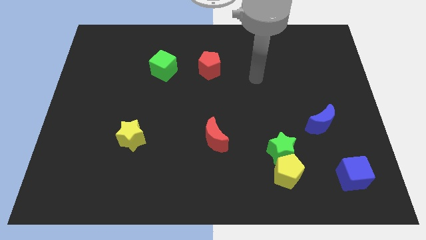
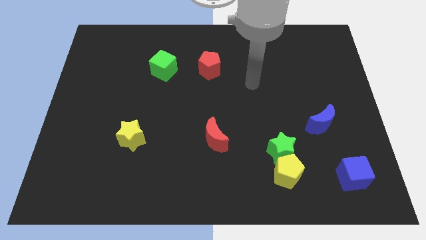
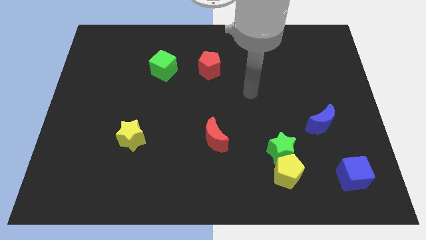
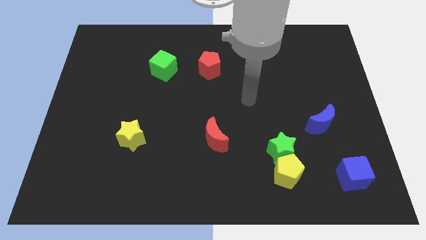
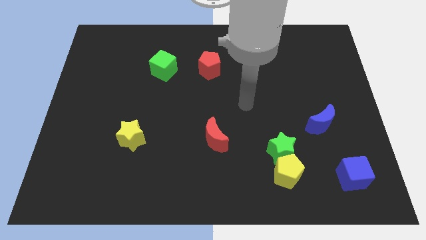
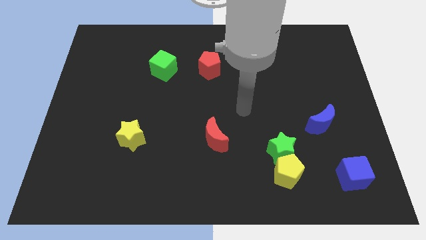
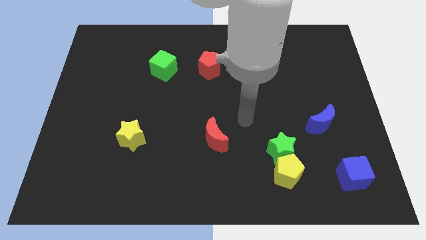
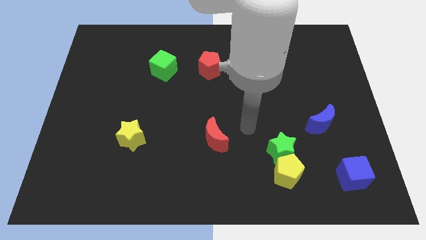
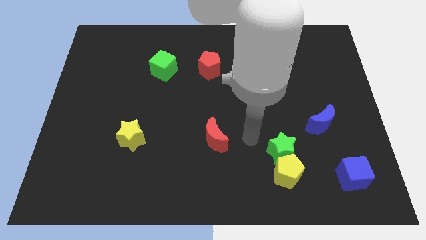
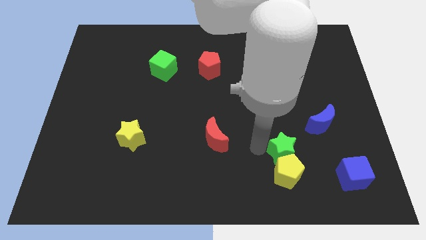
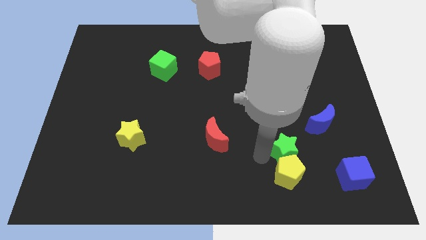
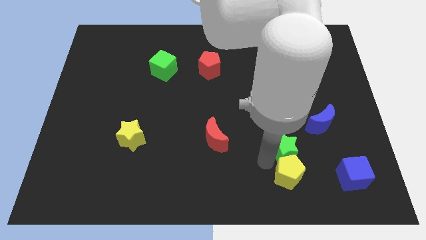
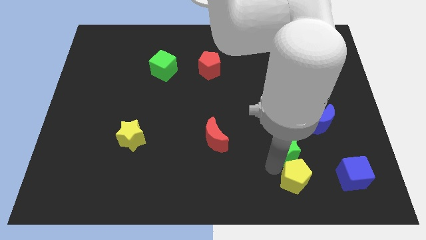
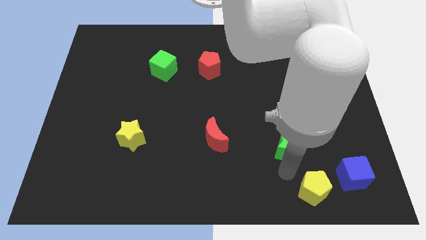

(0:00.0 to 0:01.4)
separate the green star from the yellow pentagon

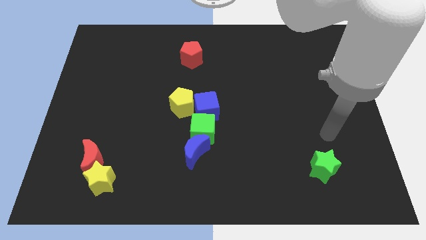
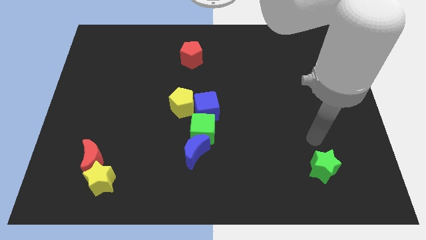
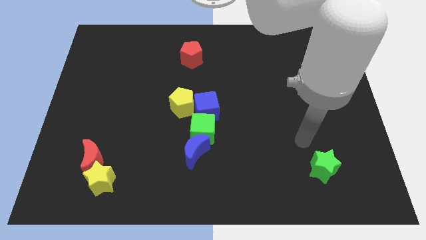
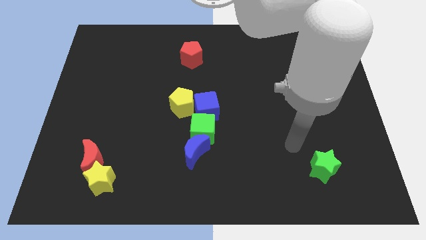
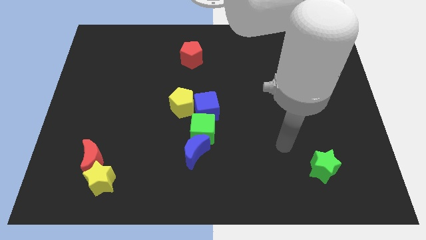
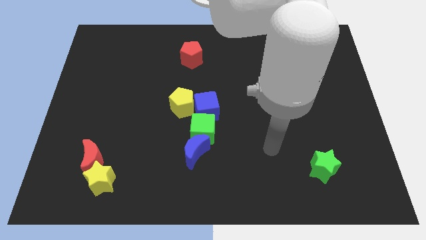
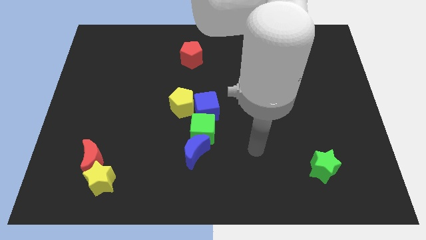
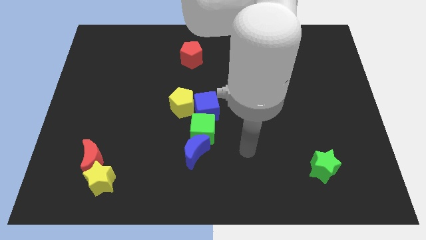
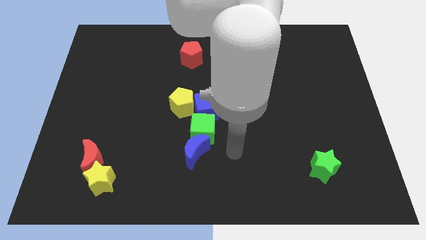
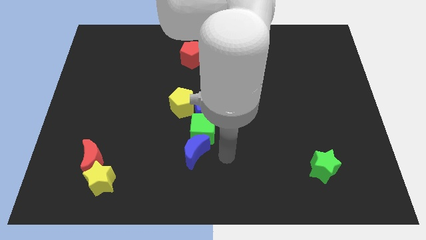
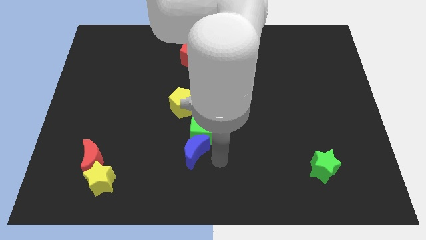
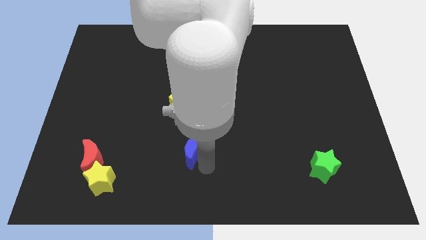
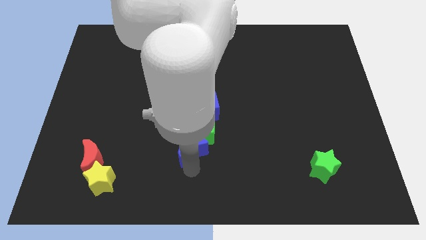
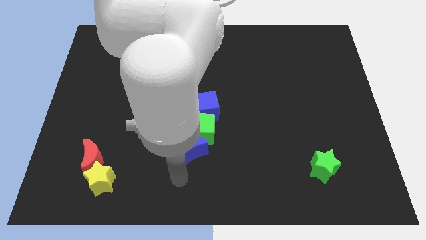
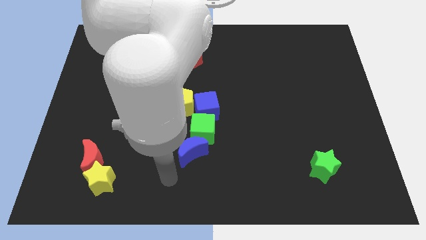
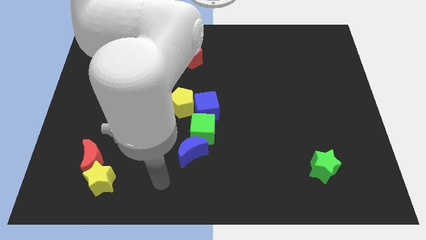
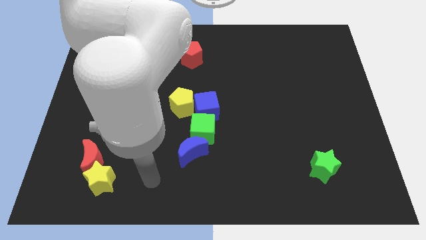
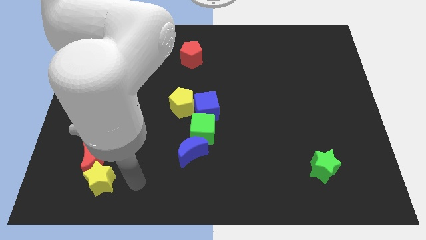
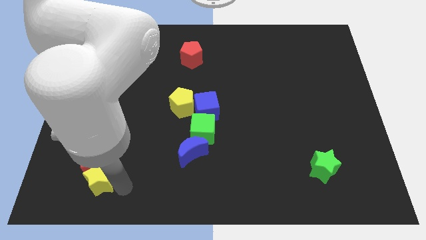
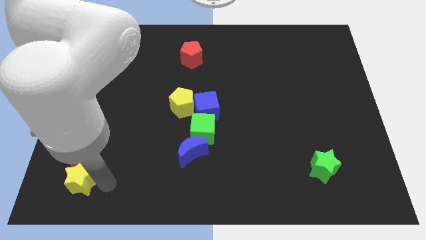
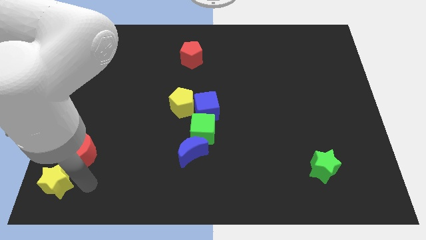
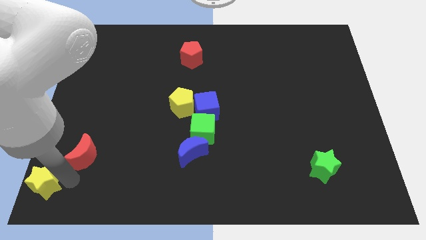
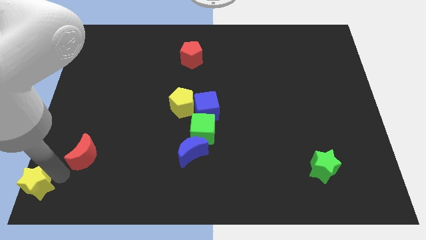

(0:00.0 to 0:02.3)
separate the red moon from the yellow star

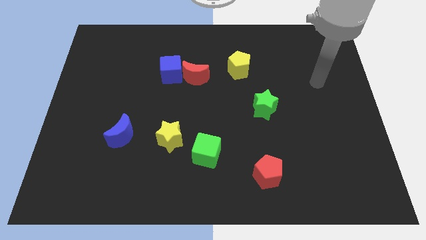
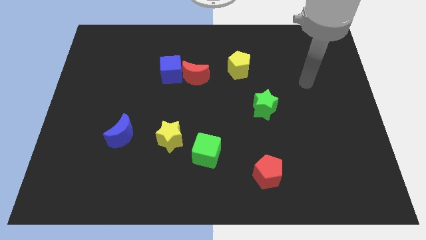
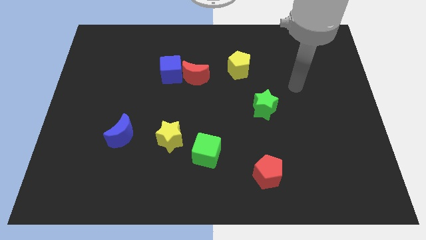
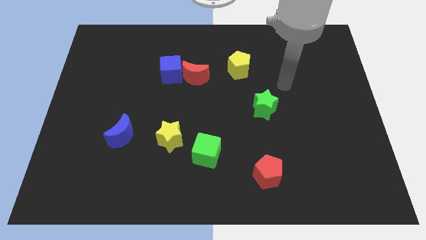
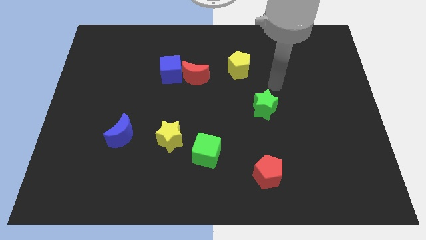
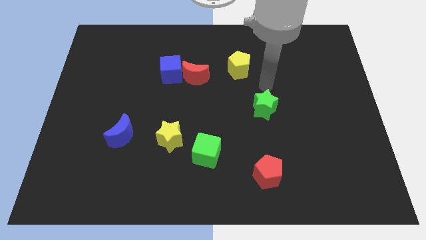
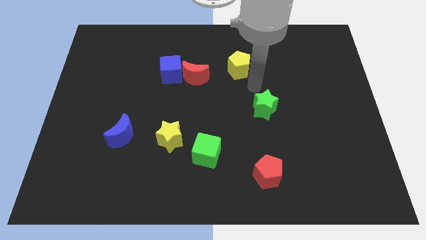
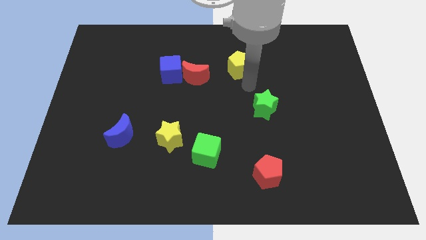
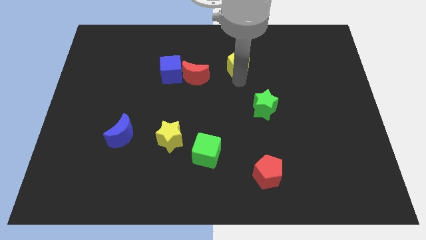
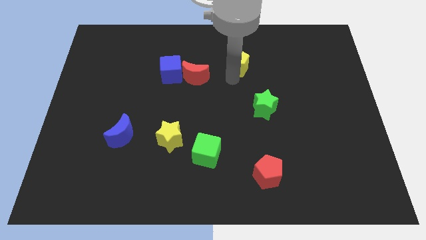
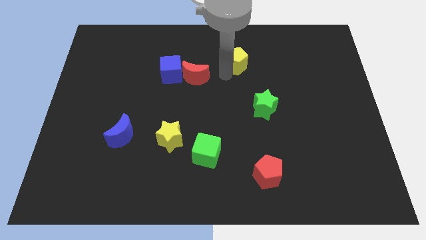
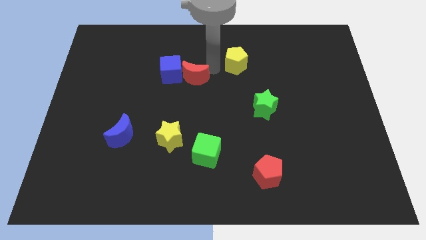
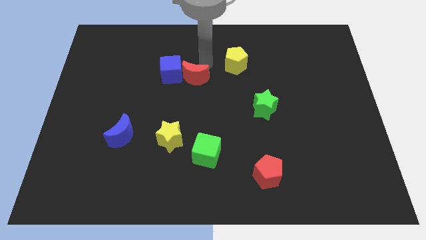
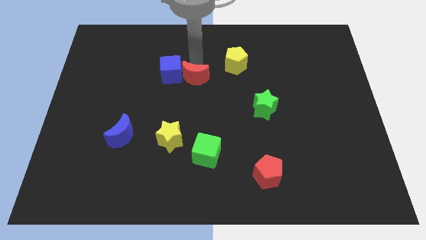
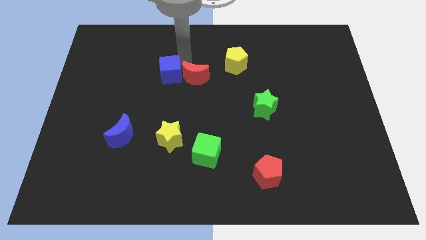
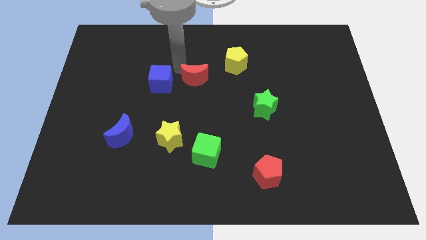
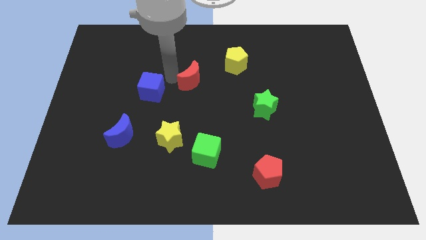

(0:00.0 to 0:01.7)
pull the red moon apart from the blue cube

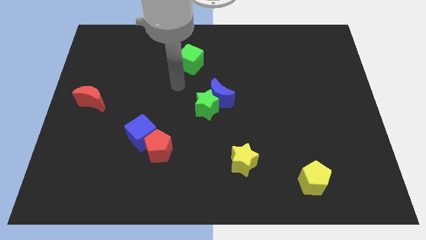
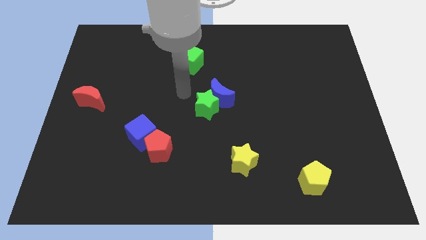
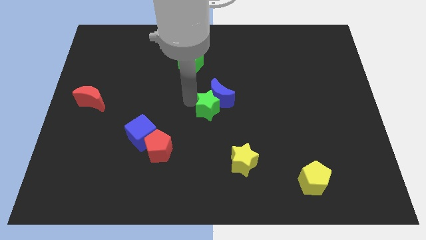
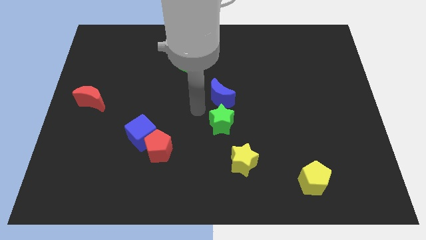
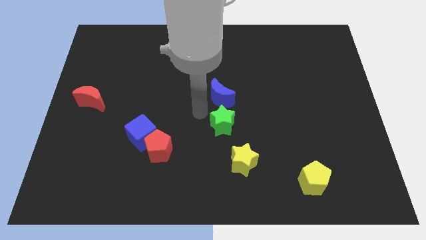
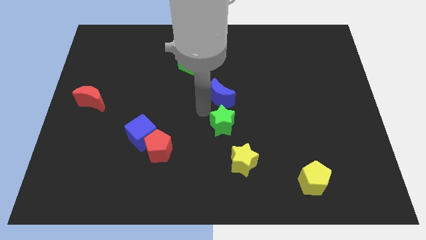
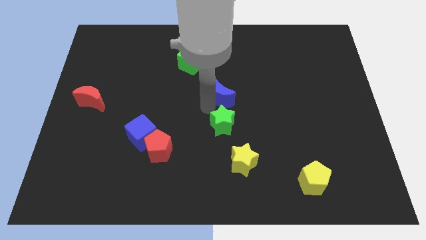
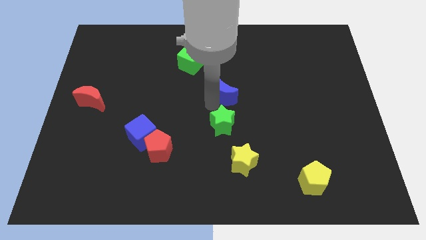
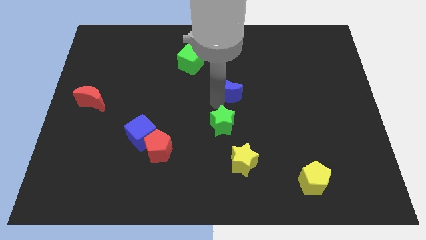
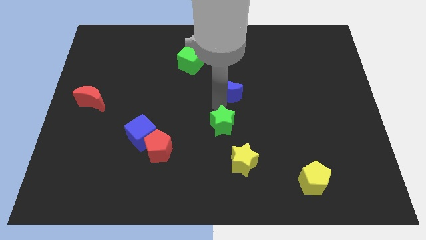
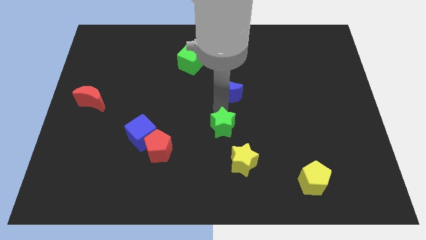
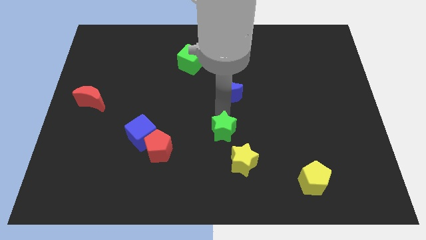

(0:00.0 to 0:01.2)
separate the blue moon from the green star

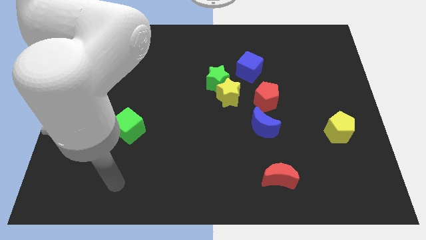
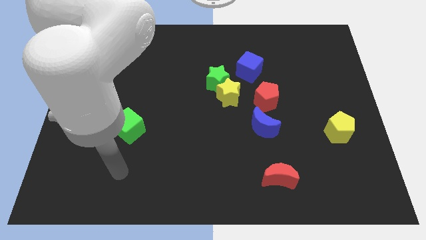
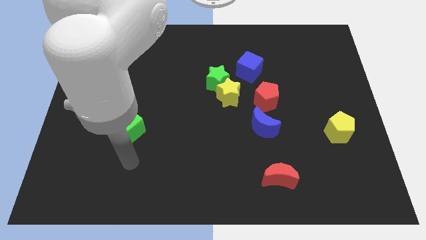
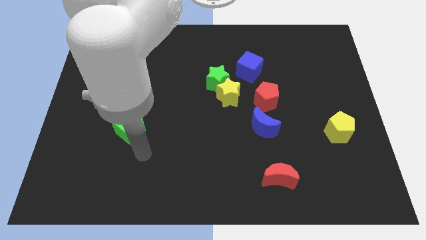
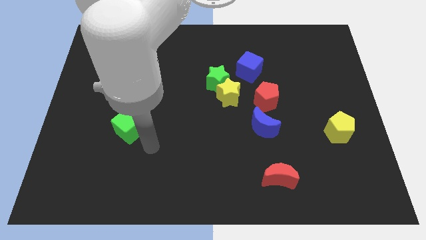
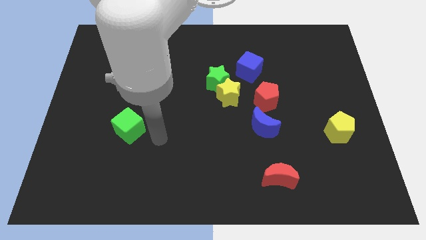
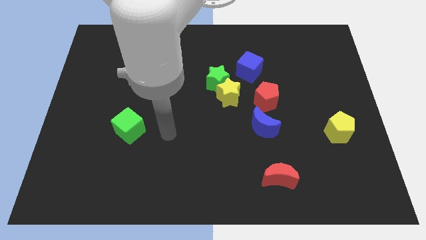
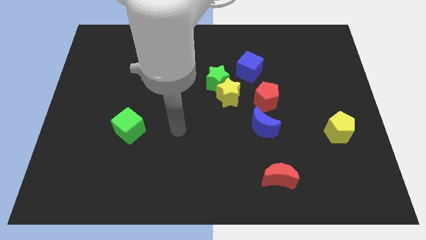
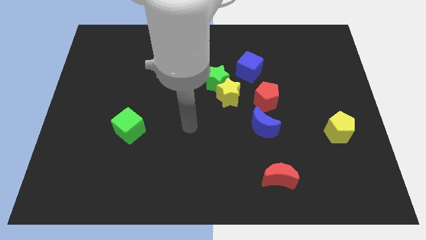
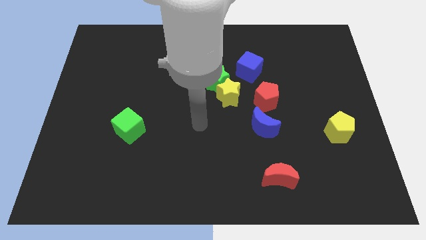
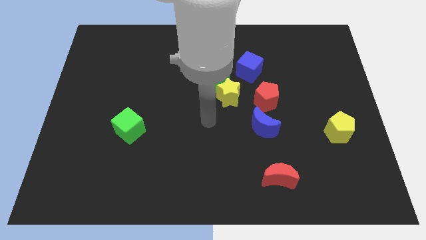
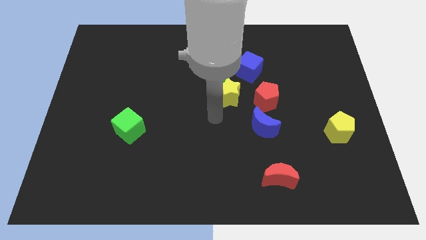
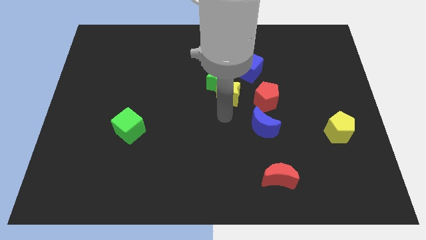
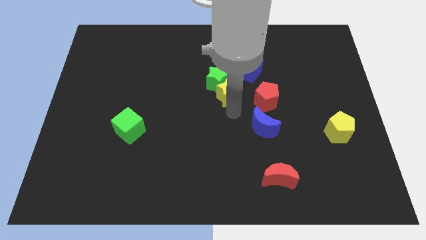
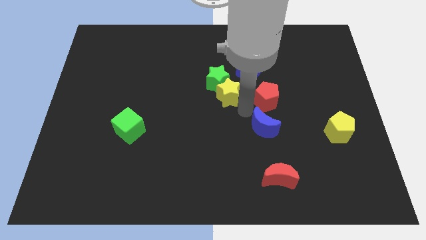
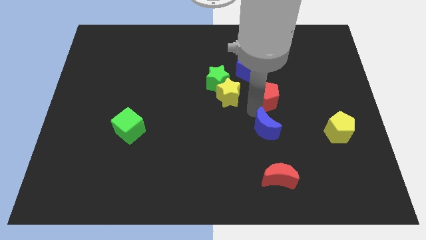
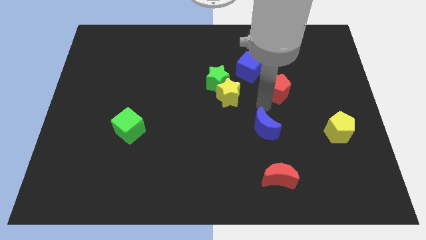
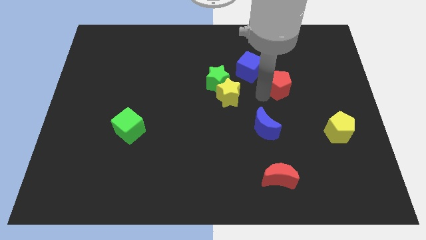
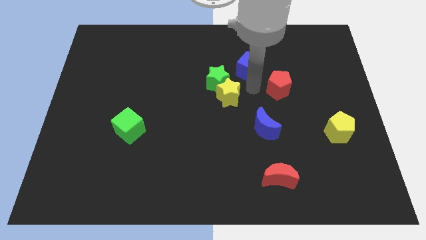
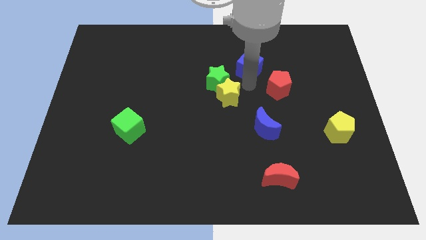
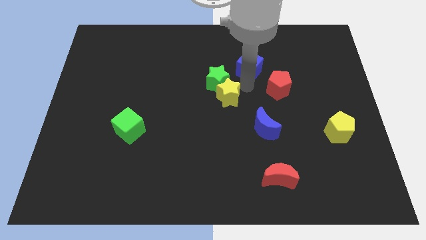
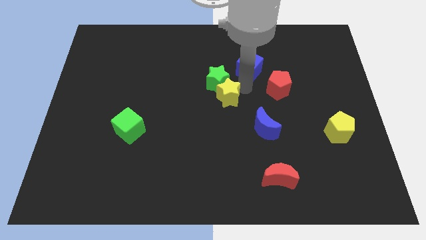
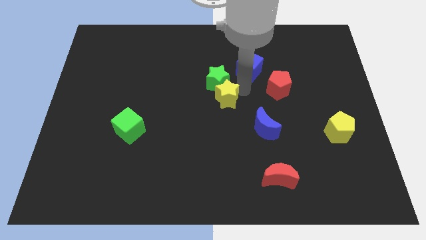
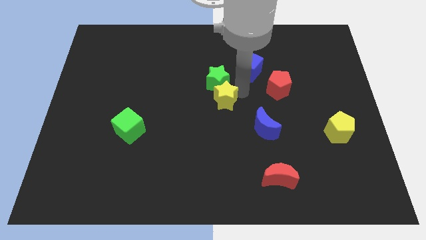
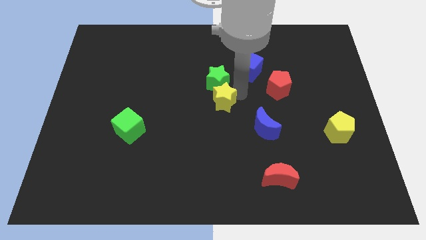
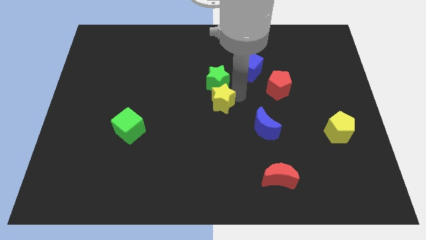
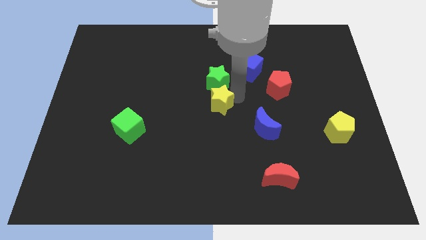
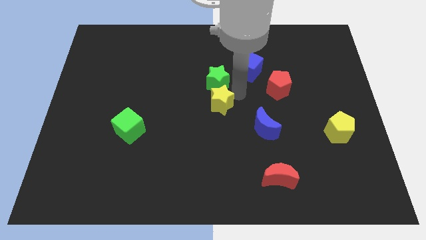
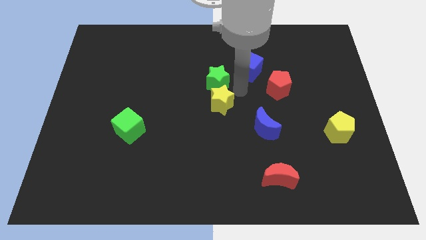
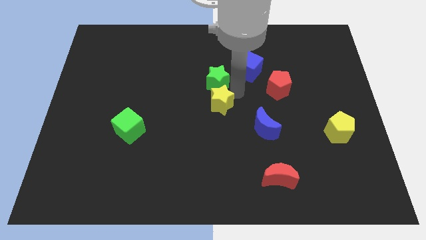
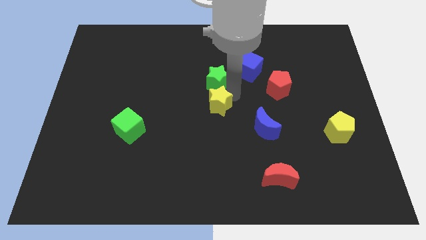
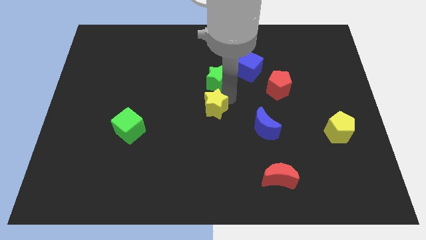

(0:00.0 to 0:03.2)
separate the yellow star from the green star and red pentagon
